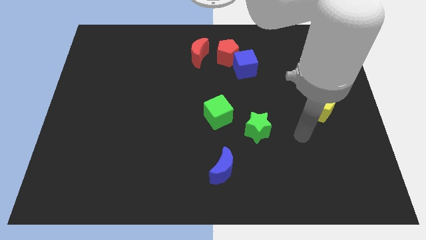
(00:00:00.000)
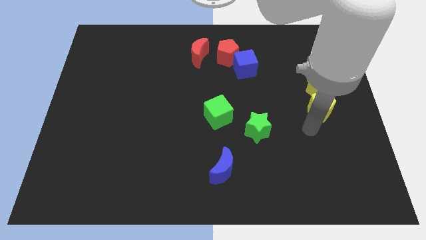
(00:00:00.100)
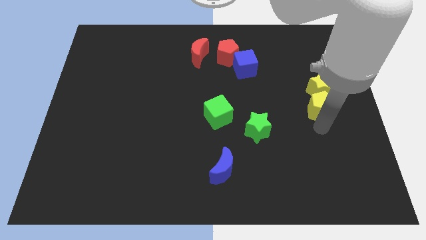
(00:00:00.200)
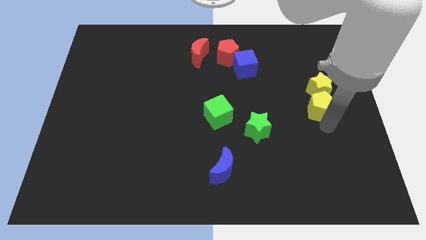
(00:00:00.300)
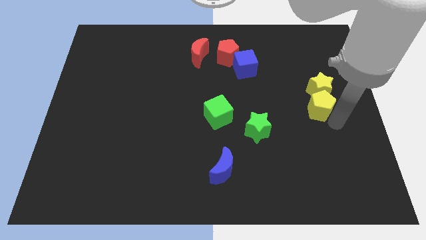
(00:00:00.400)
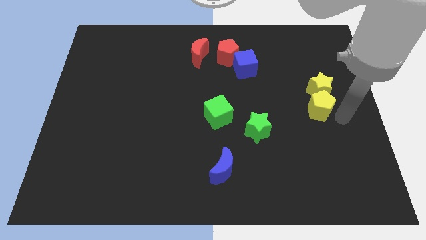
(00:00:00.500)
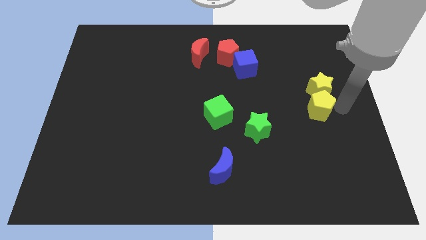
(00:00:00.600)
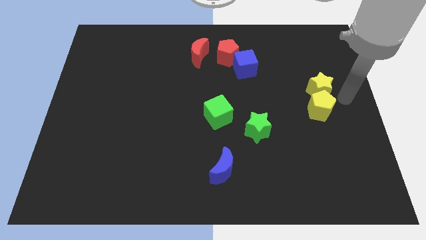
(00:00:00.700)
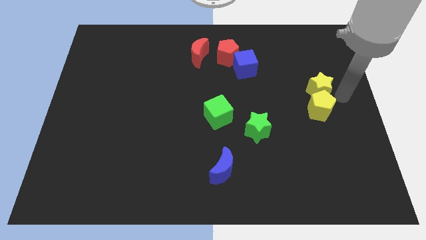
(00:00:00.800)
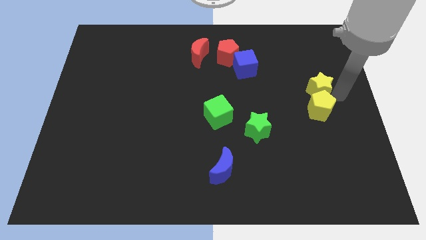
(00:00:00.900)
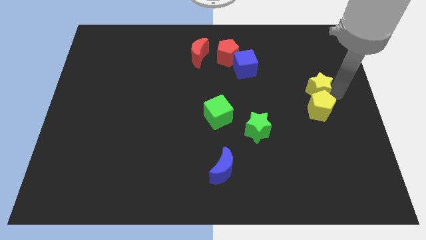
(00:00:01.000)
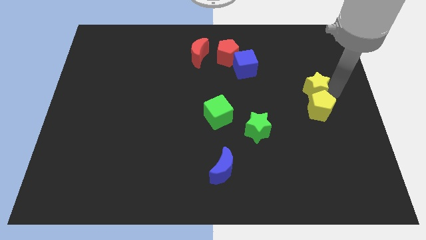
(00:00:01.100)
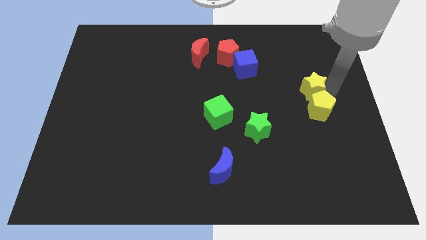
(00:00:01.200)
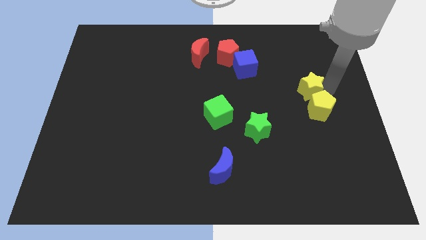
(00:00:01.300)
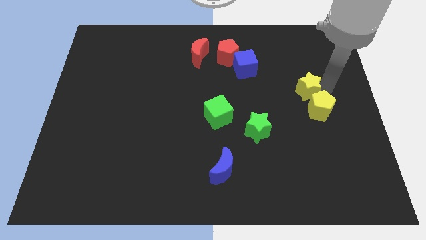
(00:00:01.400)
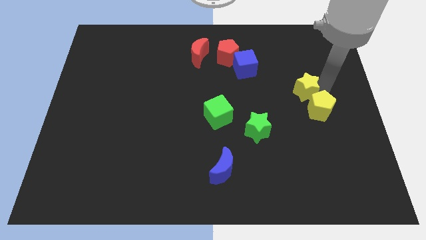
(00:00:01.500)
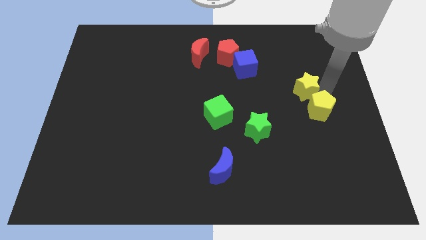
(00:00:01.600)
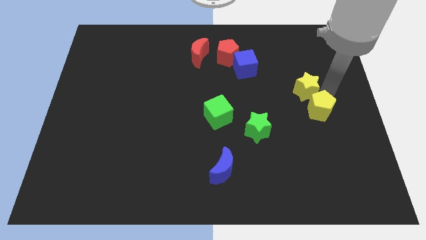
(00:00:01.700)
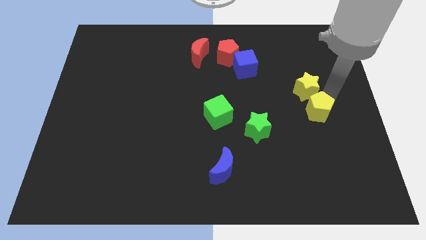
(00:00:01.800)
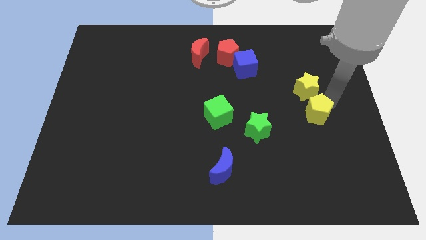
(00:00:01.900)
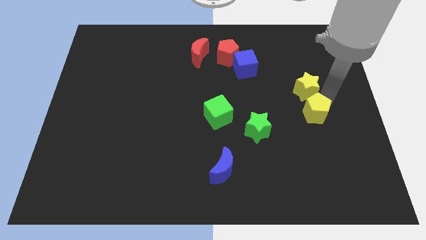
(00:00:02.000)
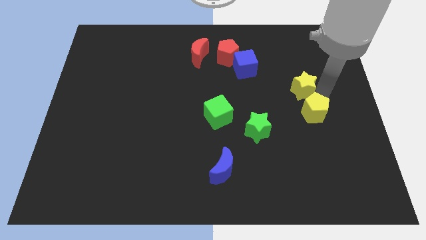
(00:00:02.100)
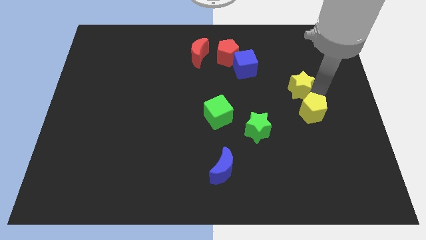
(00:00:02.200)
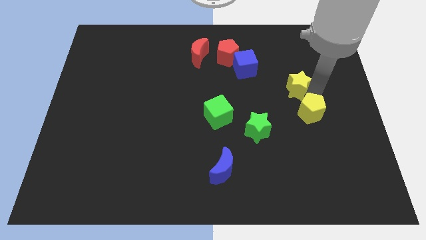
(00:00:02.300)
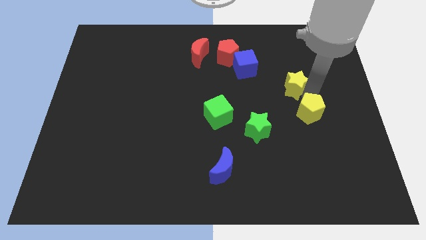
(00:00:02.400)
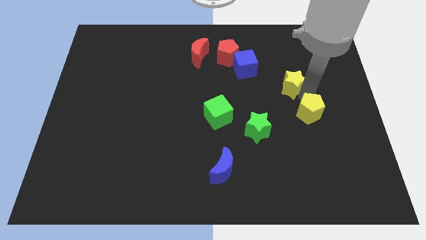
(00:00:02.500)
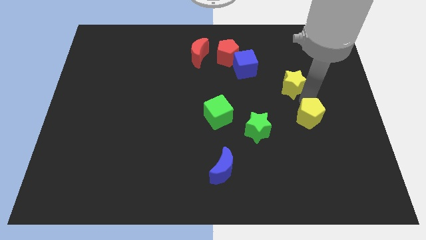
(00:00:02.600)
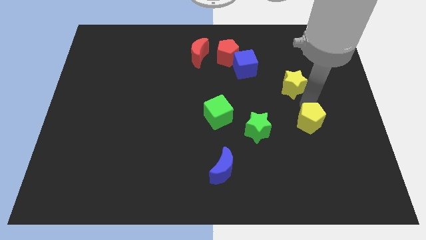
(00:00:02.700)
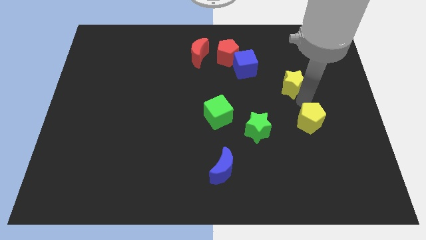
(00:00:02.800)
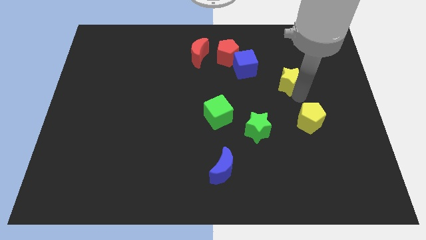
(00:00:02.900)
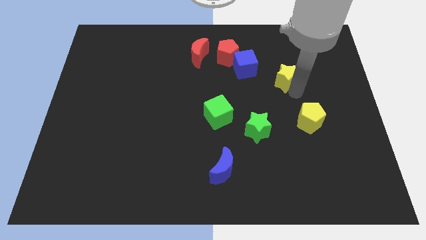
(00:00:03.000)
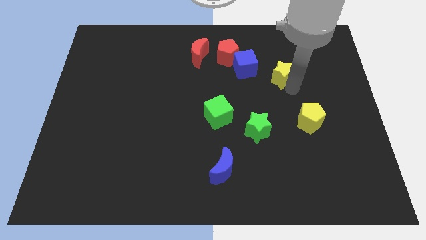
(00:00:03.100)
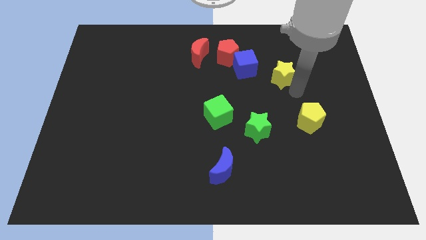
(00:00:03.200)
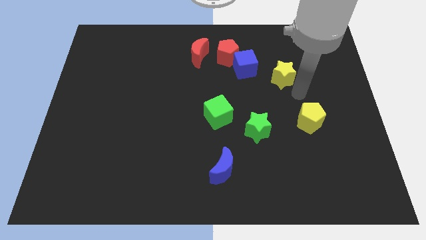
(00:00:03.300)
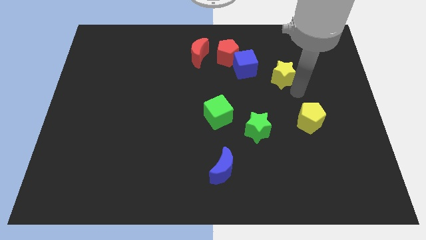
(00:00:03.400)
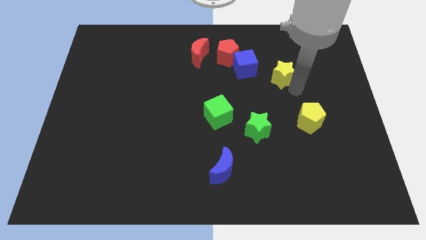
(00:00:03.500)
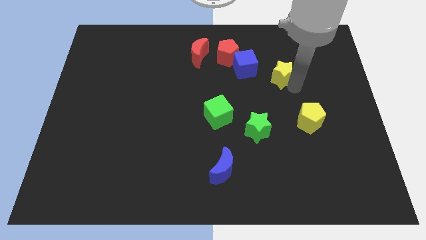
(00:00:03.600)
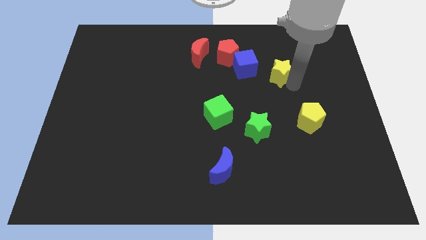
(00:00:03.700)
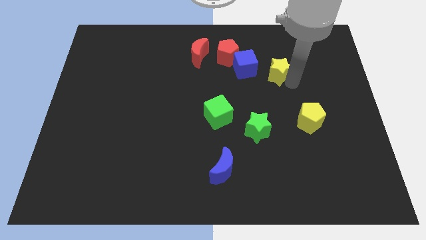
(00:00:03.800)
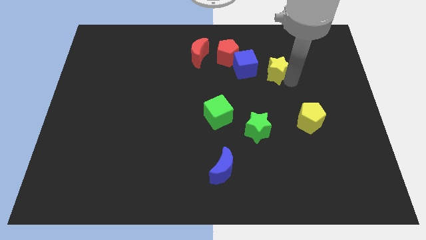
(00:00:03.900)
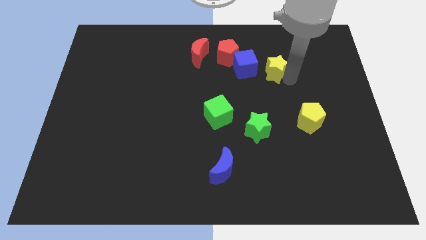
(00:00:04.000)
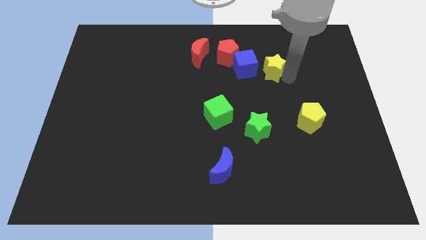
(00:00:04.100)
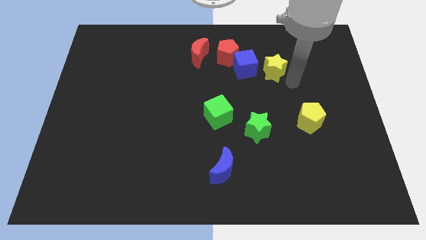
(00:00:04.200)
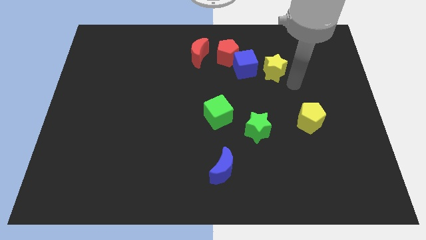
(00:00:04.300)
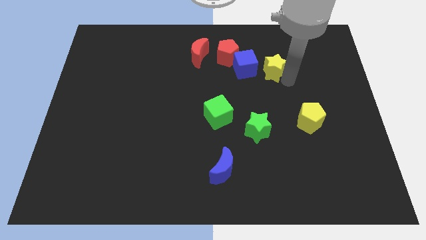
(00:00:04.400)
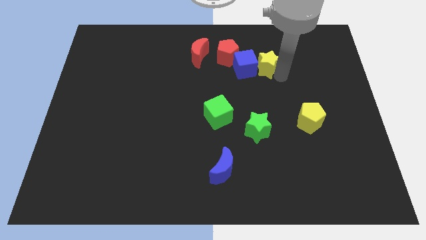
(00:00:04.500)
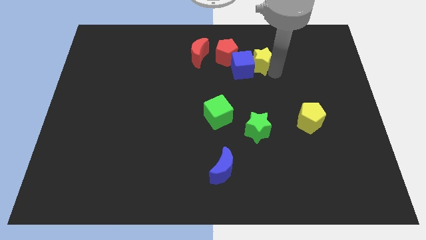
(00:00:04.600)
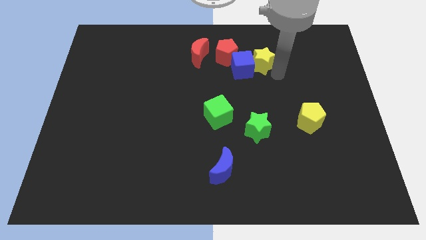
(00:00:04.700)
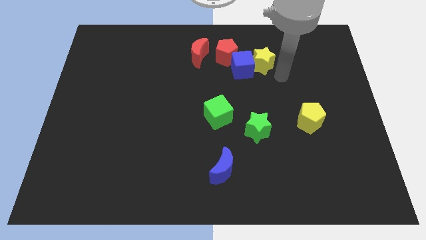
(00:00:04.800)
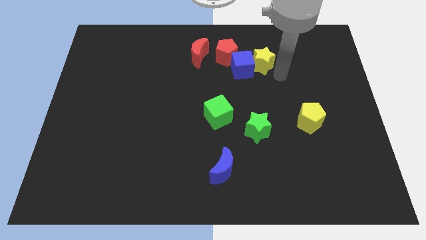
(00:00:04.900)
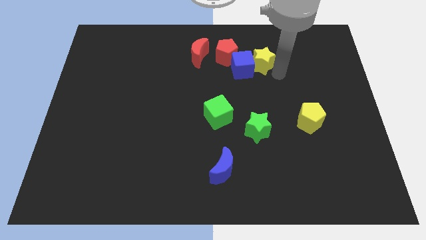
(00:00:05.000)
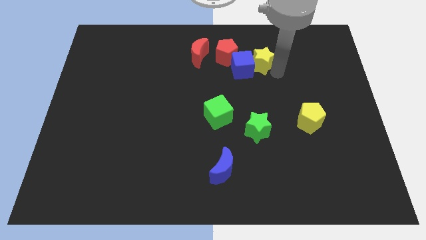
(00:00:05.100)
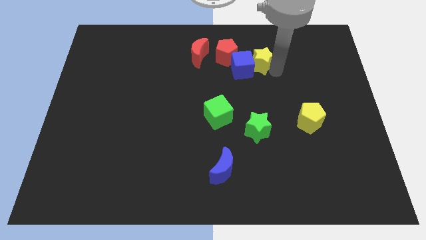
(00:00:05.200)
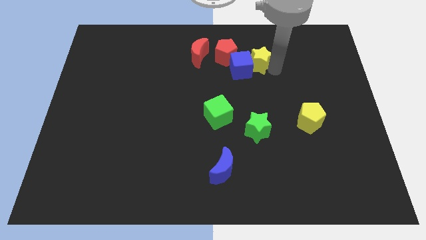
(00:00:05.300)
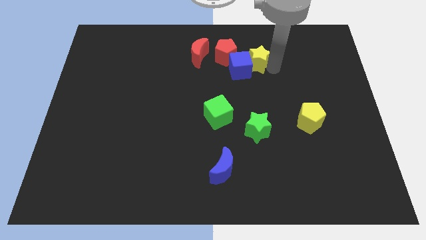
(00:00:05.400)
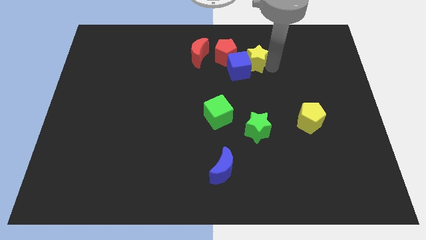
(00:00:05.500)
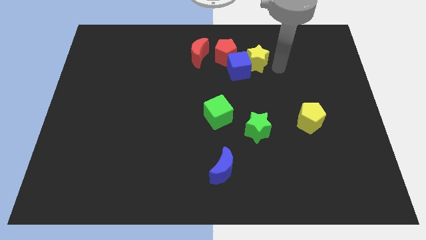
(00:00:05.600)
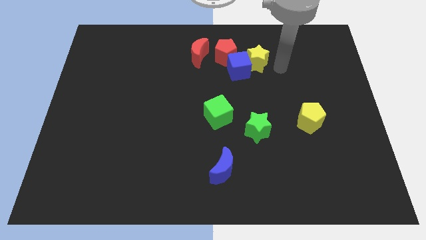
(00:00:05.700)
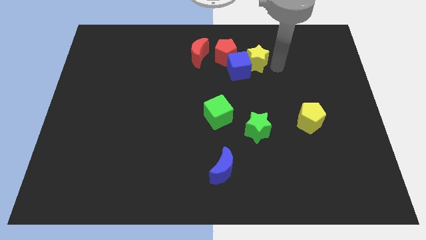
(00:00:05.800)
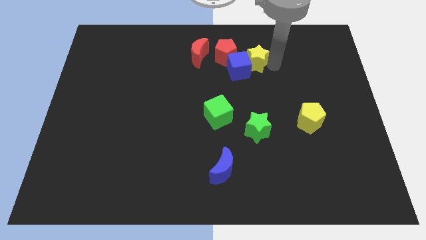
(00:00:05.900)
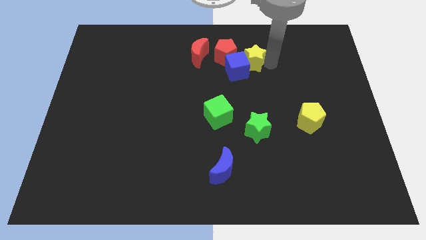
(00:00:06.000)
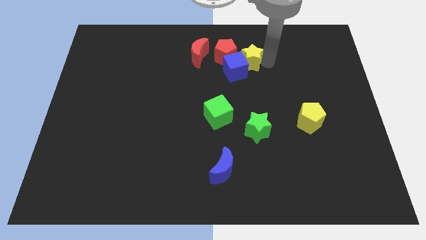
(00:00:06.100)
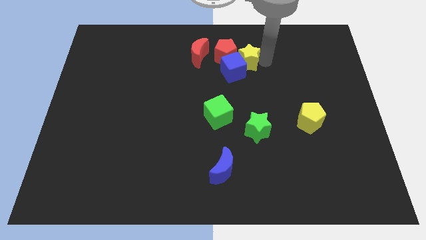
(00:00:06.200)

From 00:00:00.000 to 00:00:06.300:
push the yellow star next to the red pentagon

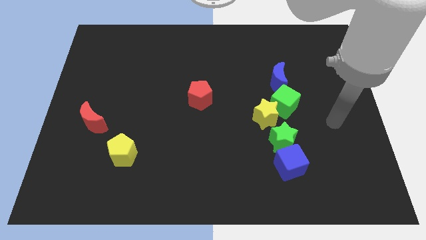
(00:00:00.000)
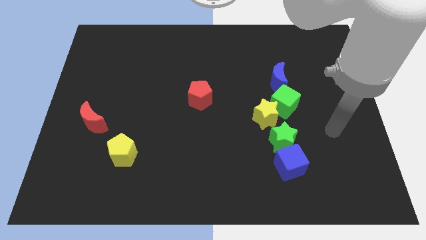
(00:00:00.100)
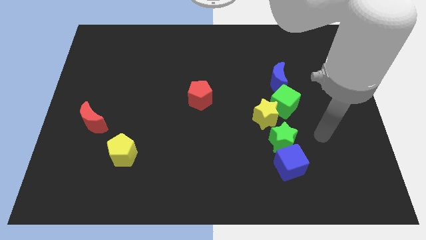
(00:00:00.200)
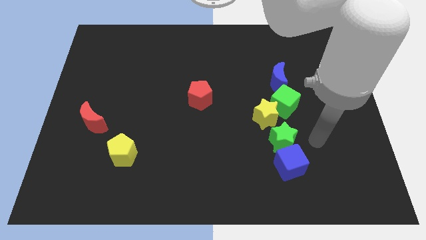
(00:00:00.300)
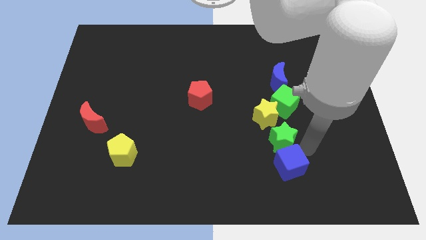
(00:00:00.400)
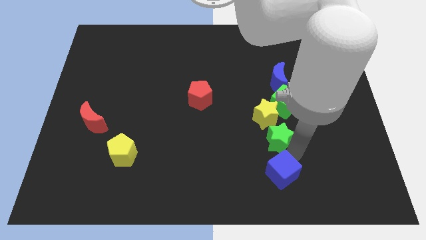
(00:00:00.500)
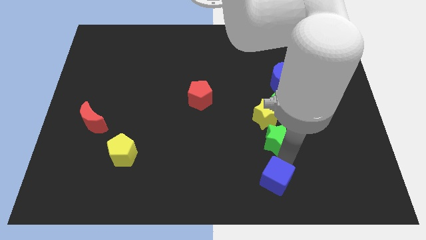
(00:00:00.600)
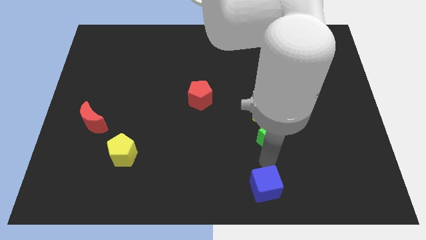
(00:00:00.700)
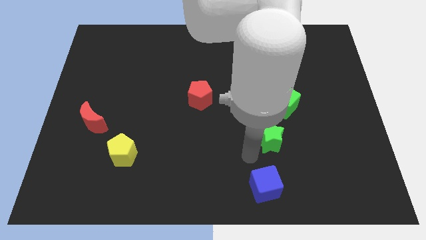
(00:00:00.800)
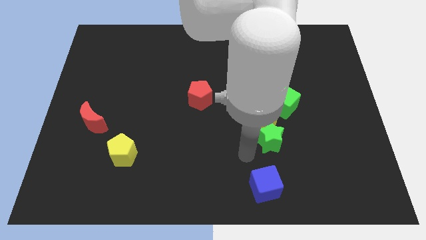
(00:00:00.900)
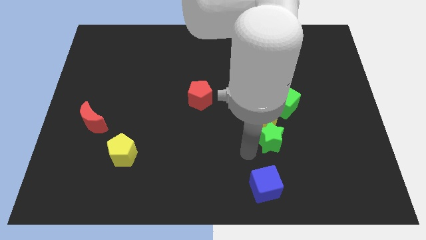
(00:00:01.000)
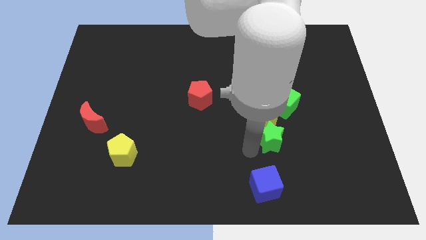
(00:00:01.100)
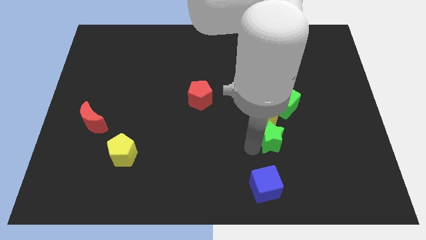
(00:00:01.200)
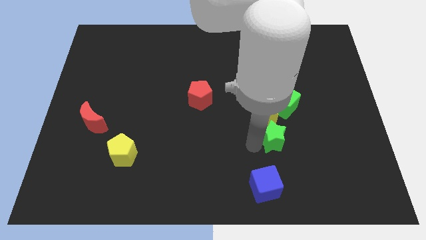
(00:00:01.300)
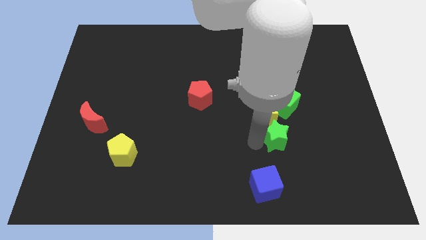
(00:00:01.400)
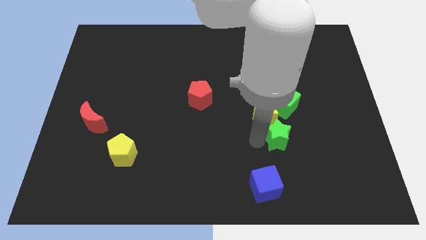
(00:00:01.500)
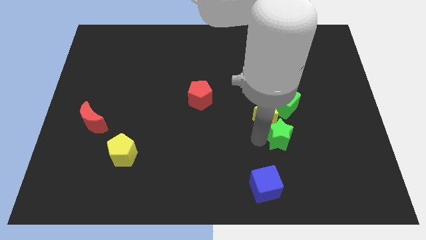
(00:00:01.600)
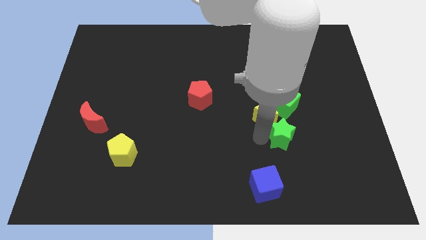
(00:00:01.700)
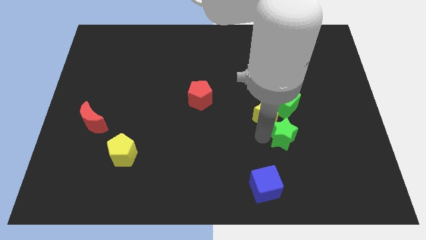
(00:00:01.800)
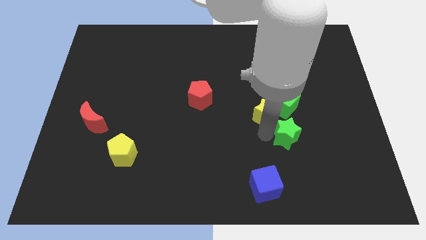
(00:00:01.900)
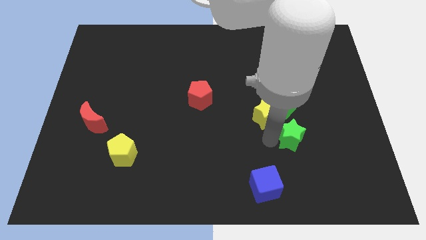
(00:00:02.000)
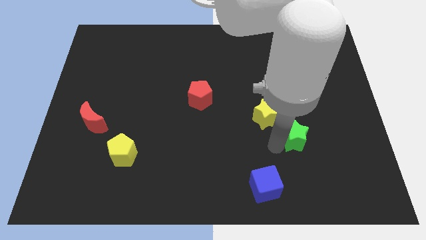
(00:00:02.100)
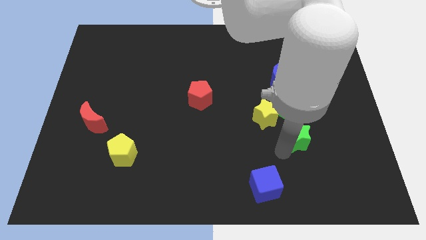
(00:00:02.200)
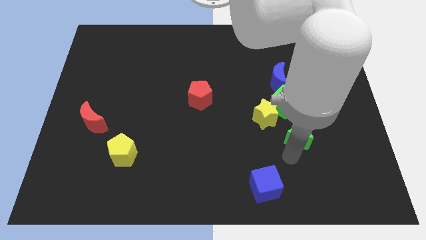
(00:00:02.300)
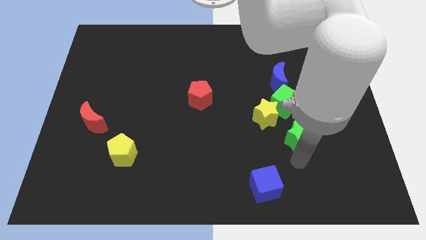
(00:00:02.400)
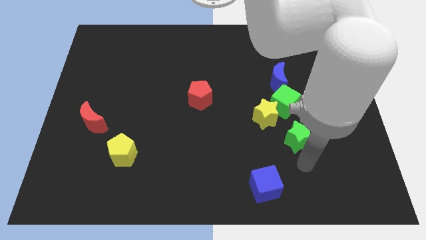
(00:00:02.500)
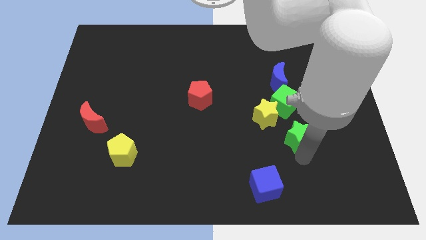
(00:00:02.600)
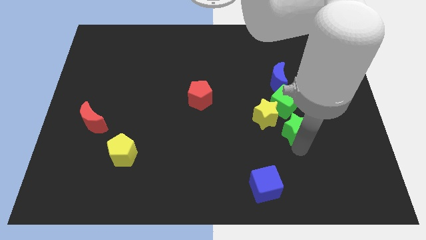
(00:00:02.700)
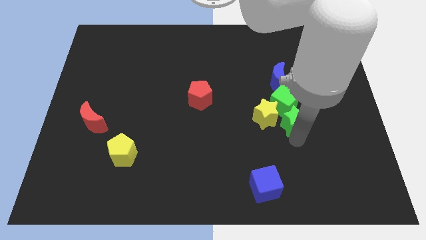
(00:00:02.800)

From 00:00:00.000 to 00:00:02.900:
slide the green star towards the green cube
